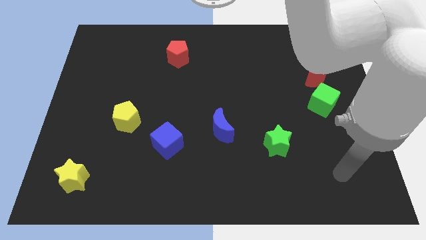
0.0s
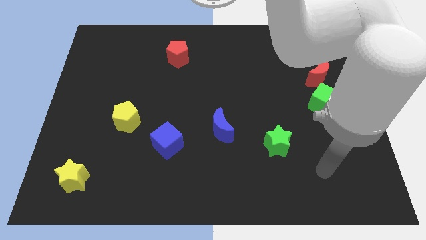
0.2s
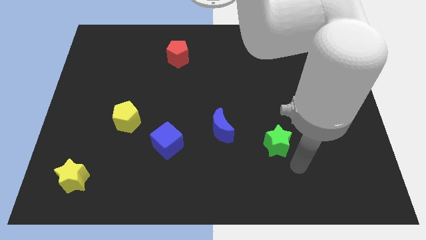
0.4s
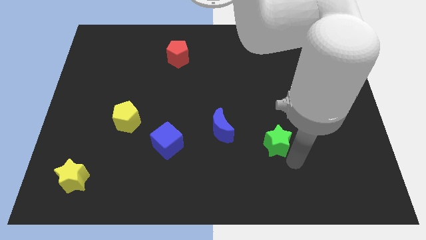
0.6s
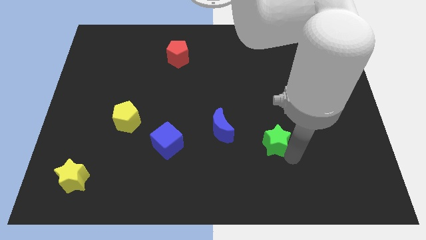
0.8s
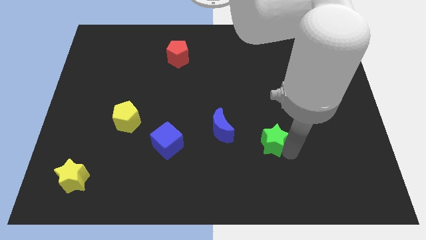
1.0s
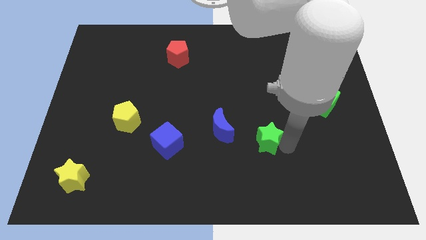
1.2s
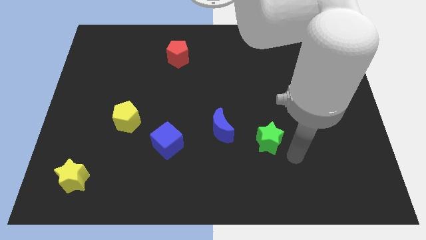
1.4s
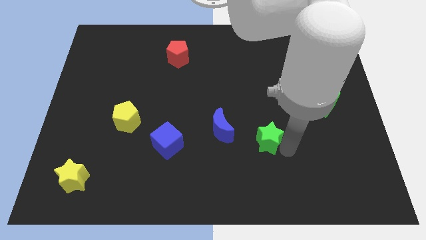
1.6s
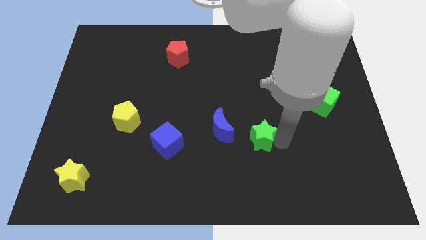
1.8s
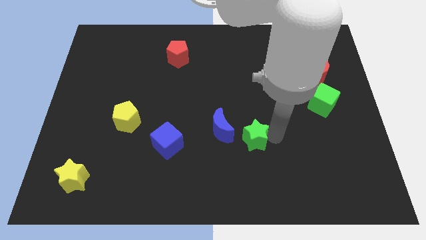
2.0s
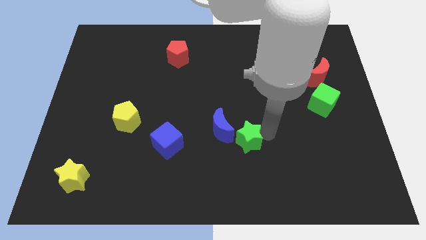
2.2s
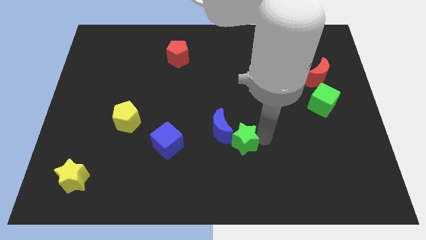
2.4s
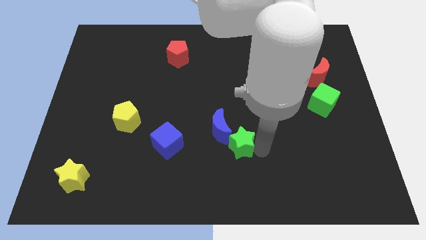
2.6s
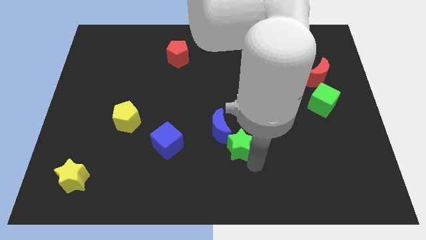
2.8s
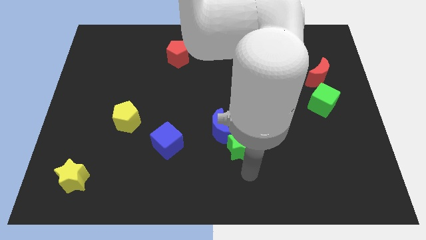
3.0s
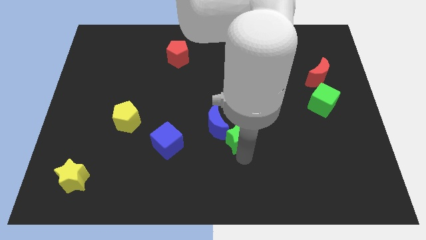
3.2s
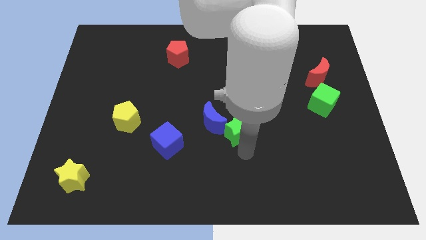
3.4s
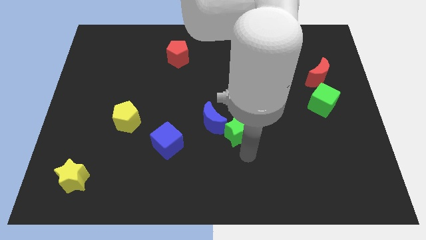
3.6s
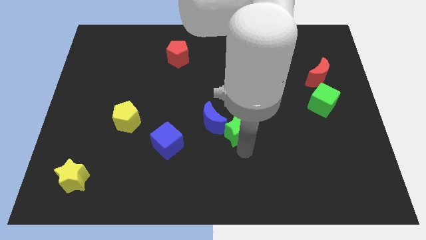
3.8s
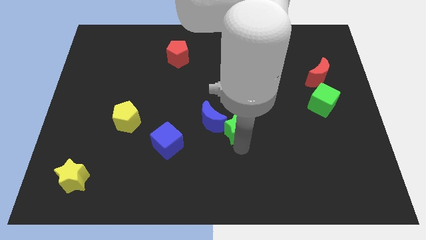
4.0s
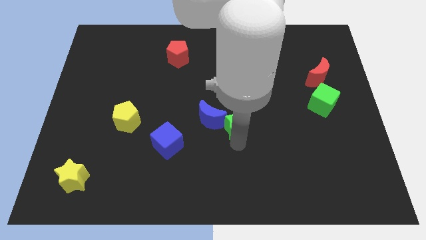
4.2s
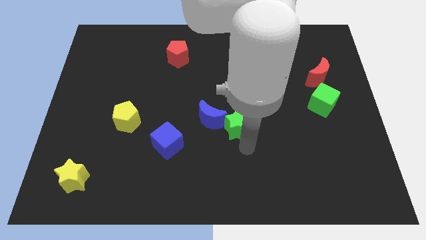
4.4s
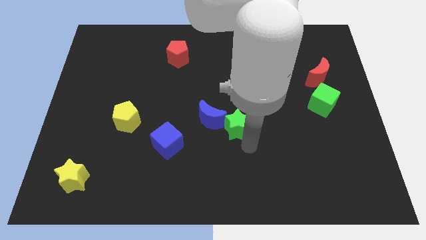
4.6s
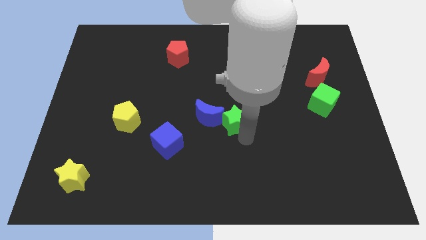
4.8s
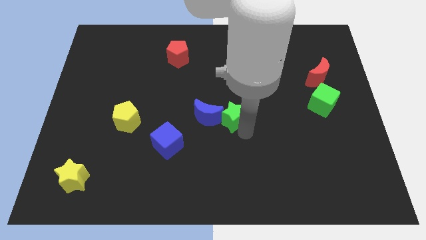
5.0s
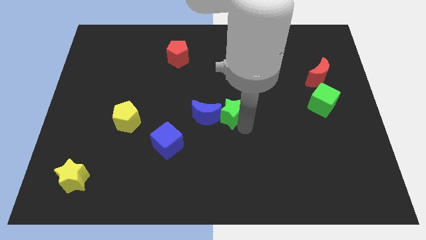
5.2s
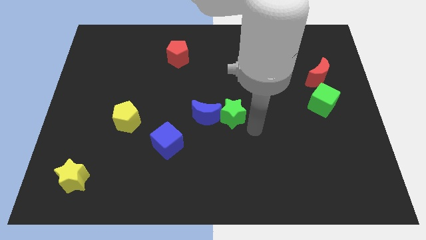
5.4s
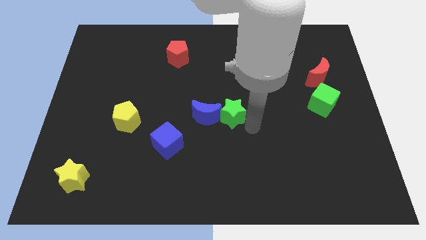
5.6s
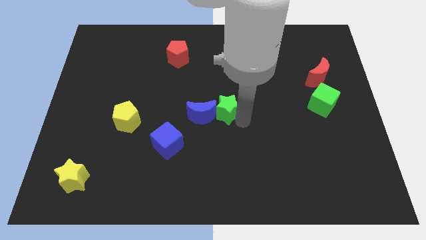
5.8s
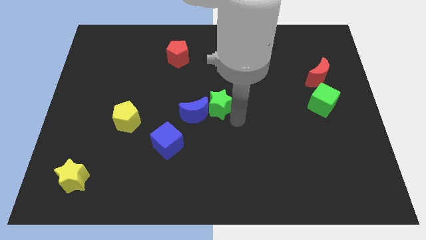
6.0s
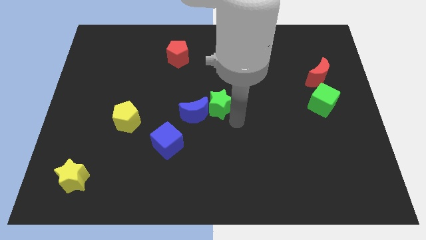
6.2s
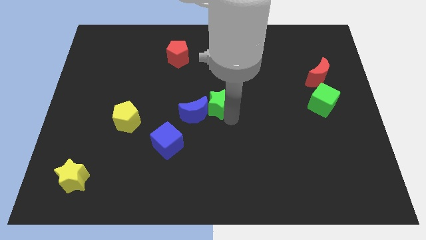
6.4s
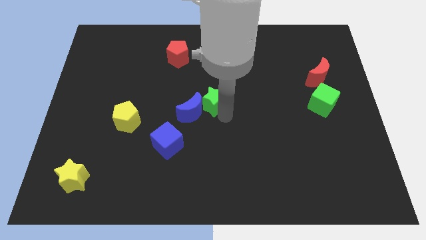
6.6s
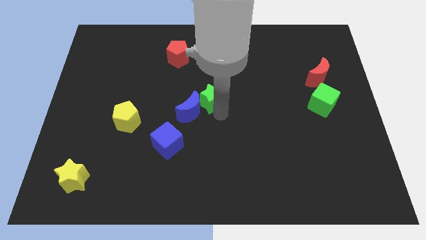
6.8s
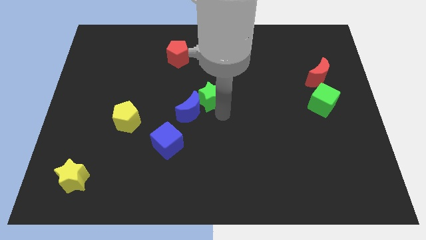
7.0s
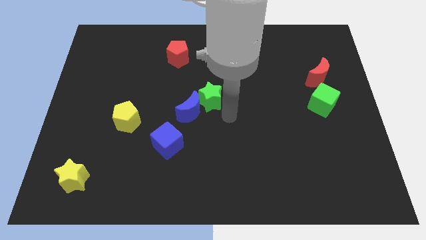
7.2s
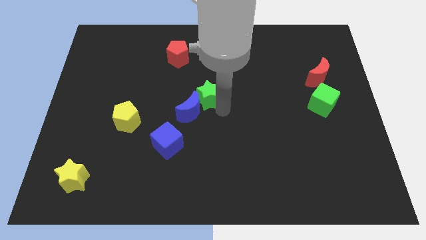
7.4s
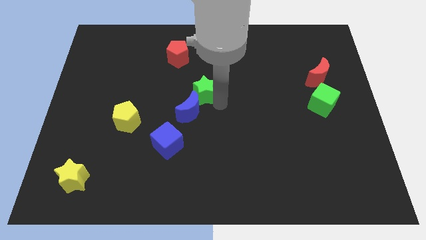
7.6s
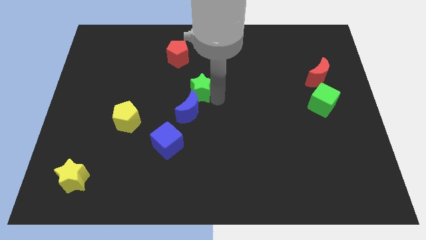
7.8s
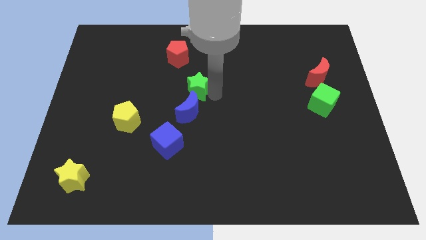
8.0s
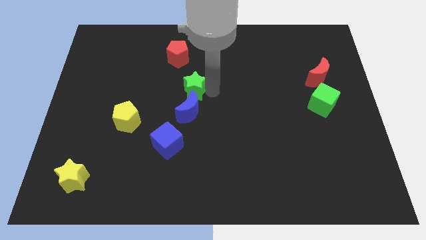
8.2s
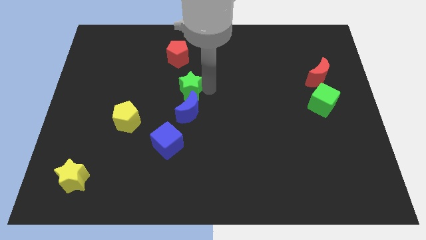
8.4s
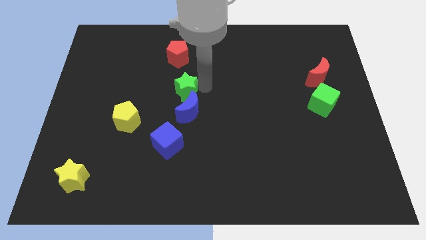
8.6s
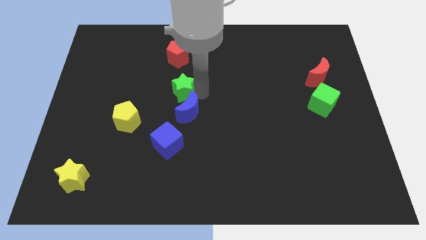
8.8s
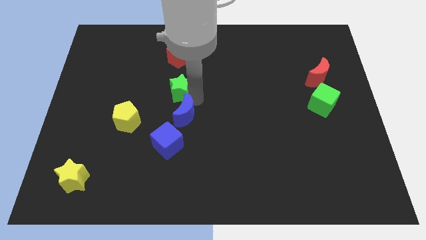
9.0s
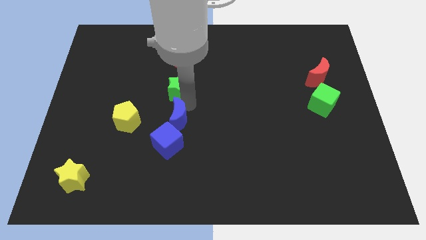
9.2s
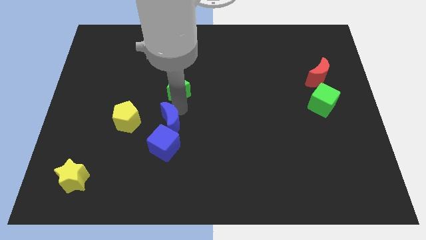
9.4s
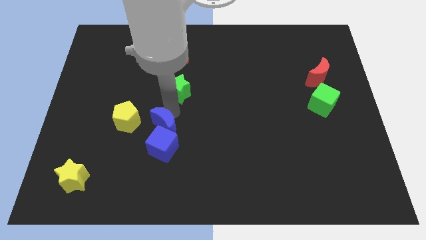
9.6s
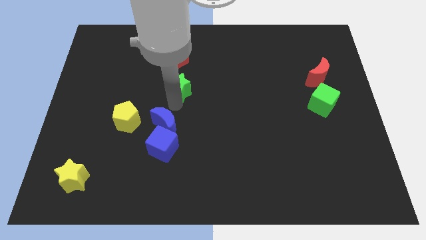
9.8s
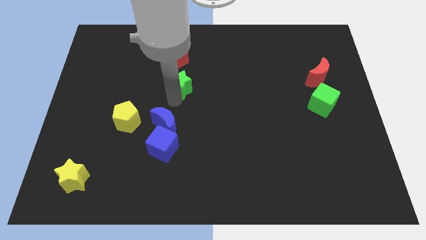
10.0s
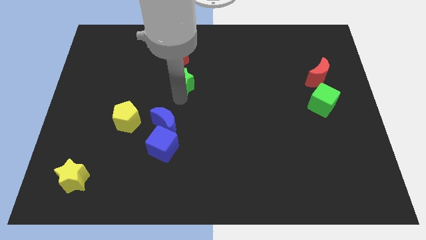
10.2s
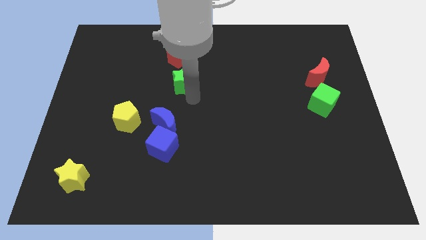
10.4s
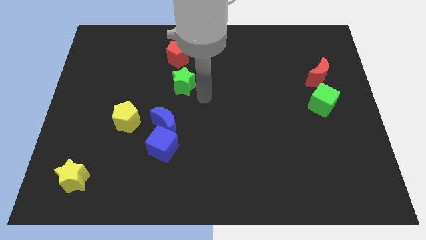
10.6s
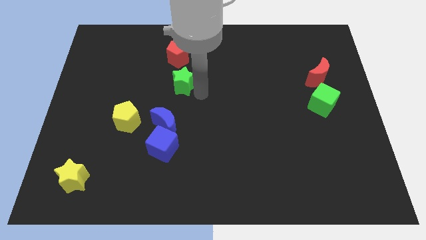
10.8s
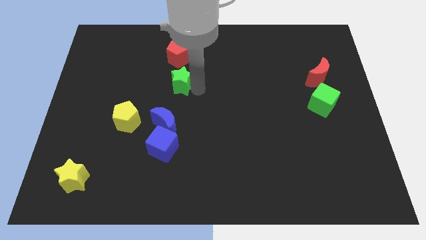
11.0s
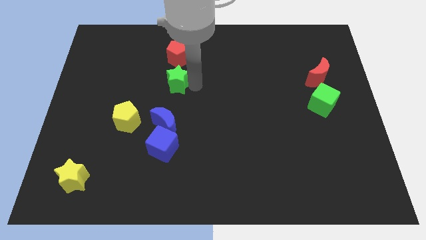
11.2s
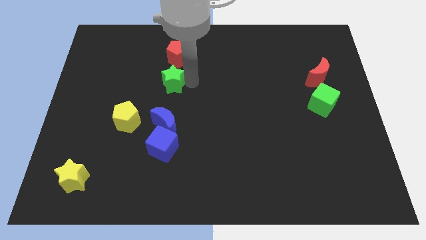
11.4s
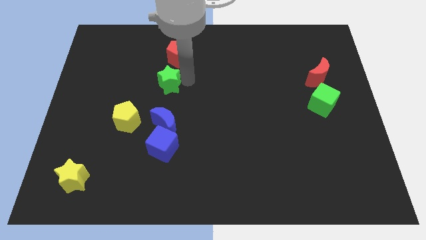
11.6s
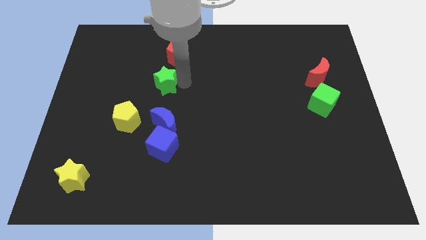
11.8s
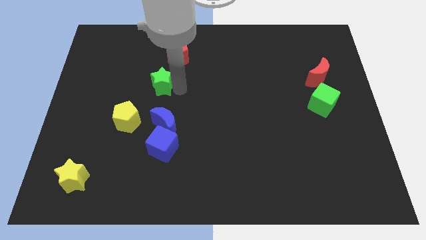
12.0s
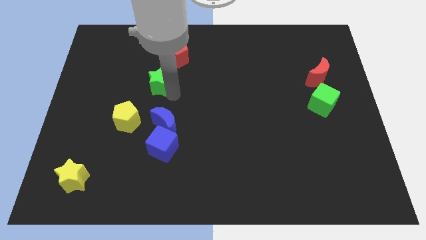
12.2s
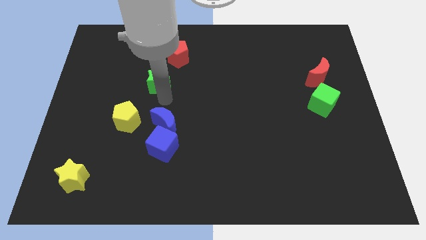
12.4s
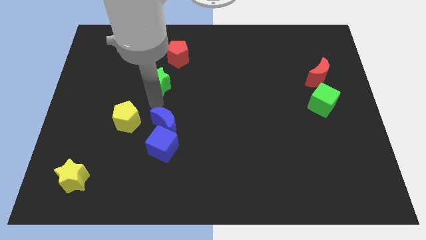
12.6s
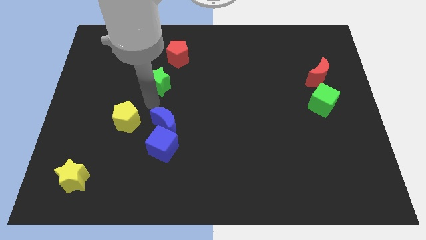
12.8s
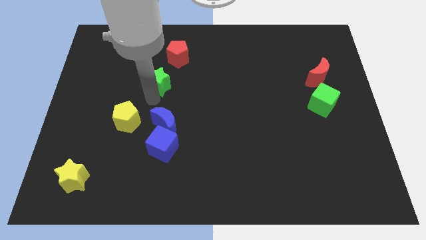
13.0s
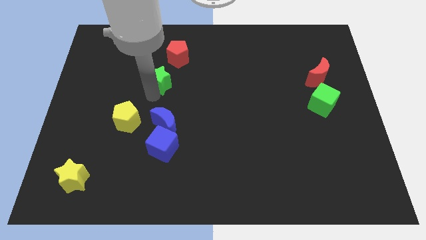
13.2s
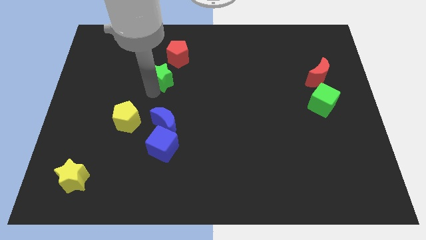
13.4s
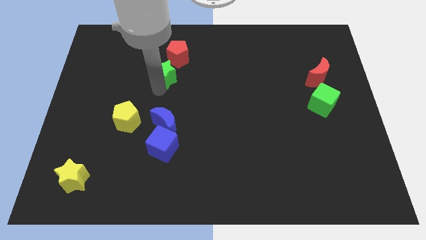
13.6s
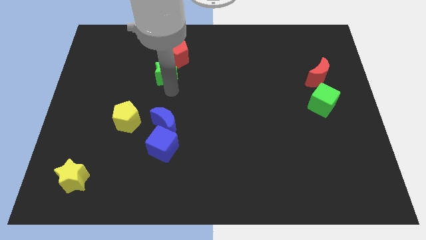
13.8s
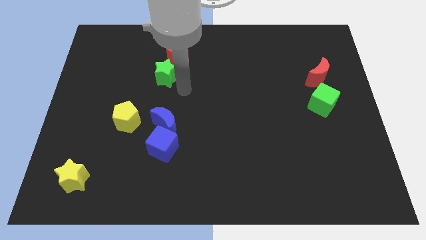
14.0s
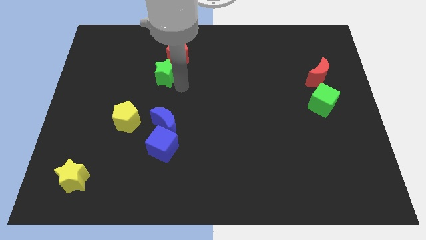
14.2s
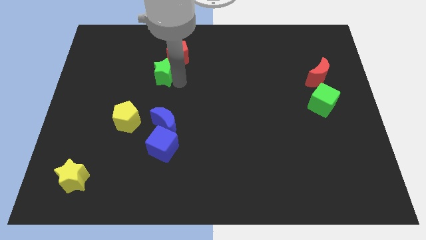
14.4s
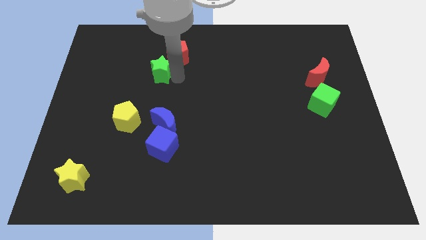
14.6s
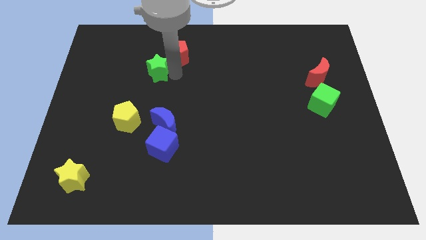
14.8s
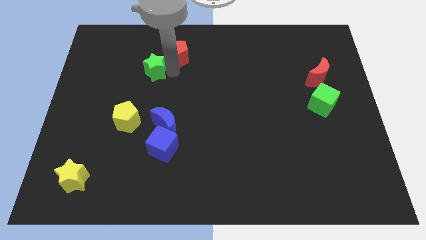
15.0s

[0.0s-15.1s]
slide the green star just left of the red pentagon

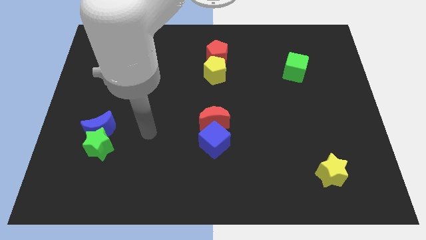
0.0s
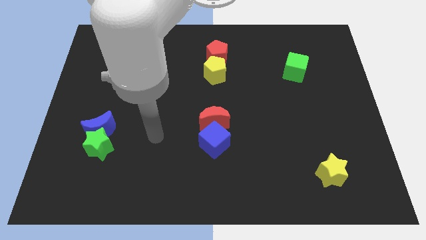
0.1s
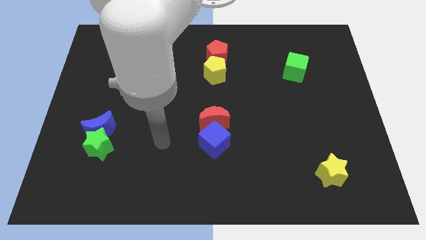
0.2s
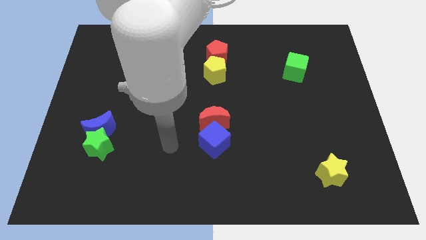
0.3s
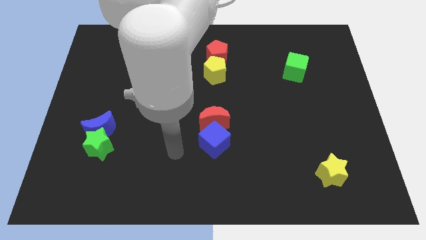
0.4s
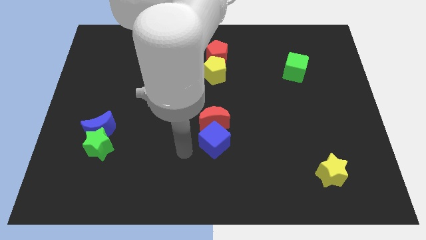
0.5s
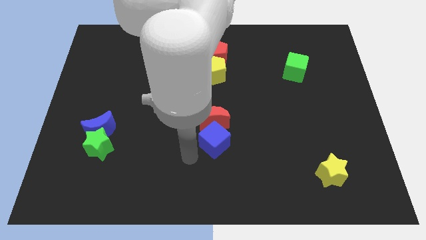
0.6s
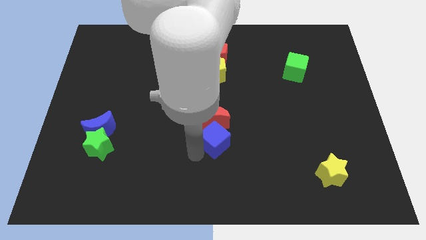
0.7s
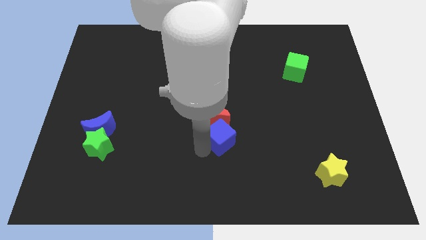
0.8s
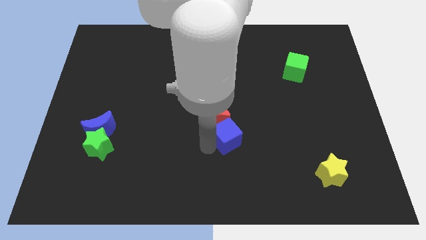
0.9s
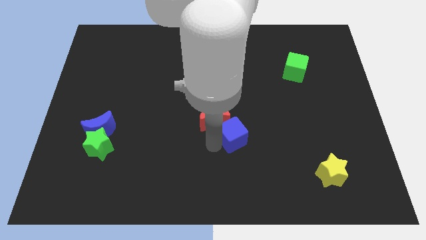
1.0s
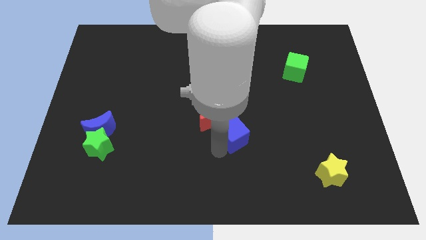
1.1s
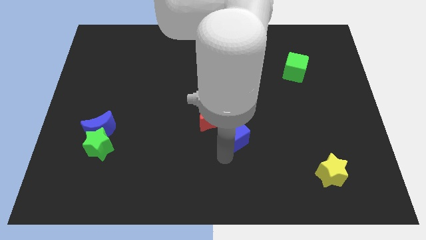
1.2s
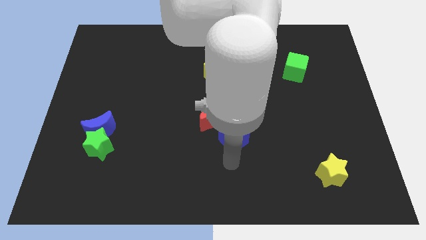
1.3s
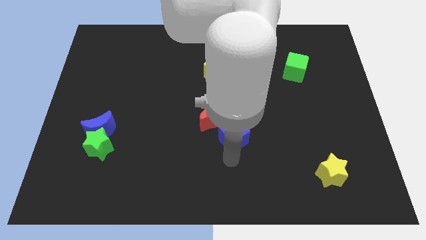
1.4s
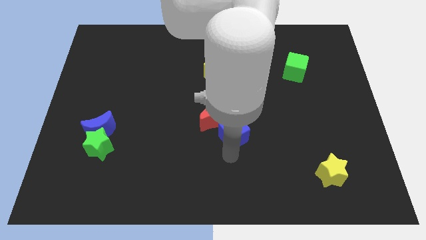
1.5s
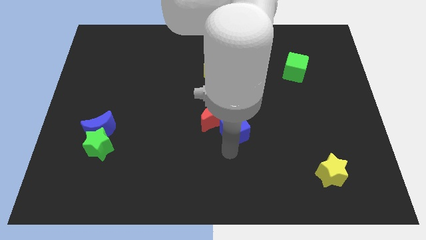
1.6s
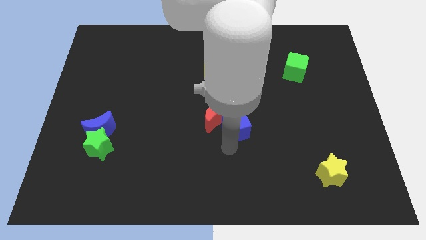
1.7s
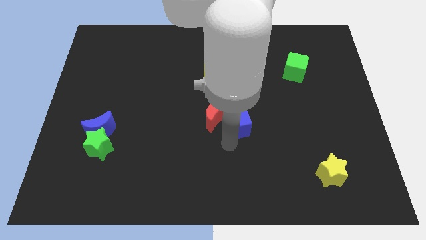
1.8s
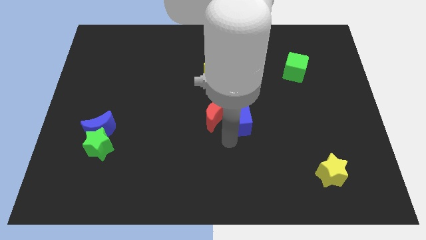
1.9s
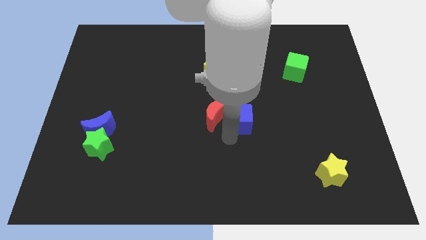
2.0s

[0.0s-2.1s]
put the blue cube diagonally up and to the right of the red moon
